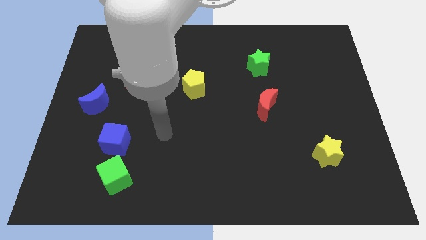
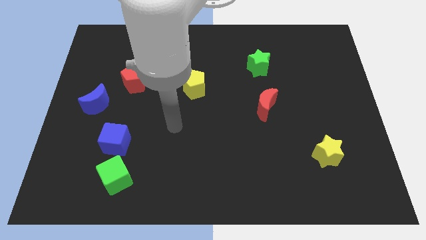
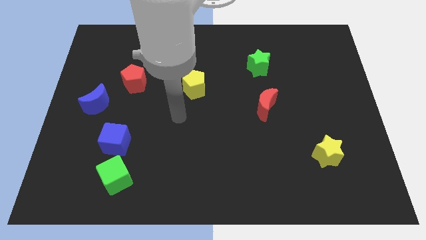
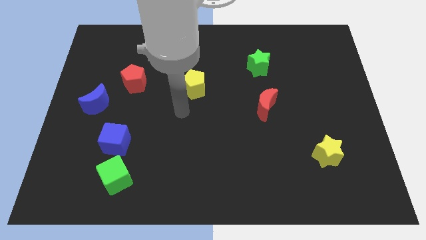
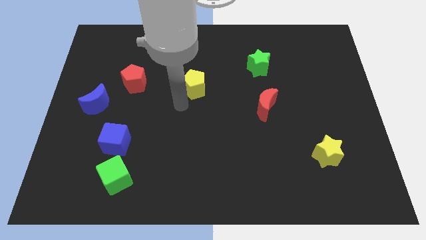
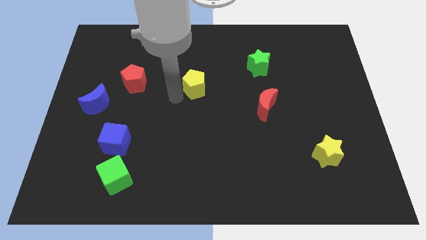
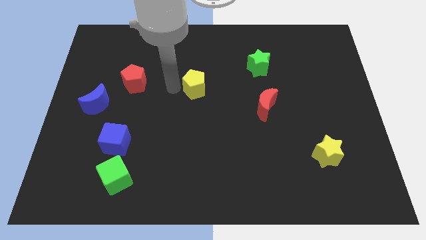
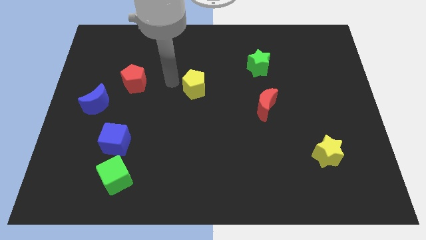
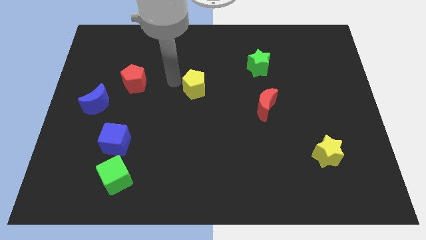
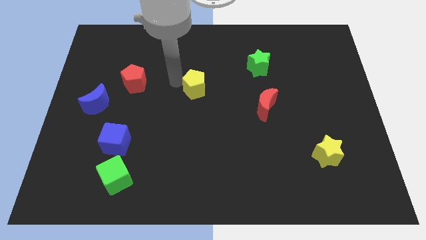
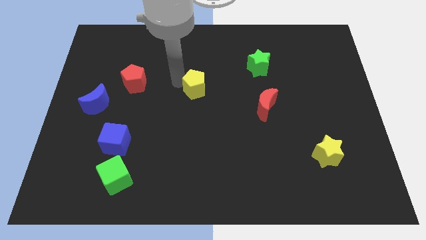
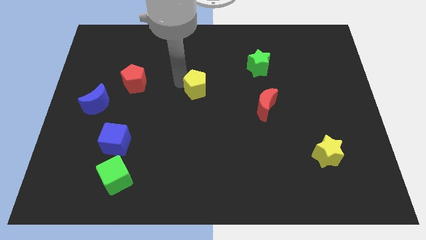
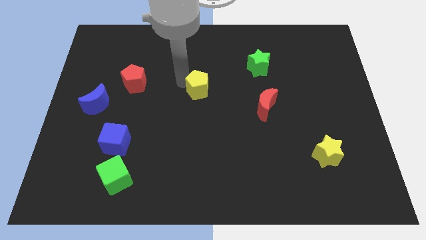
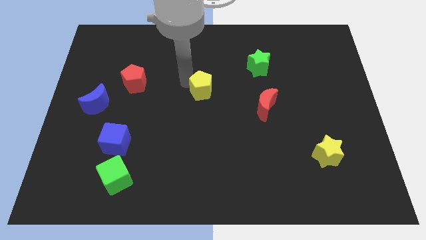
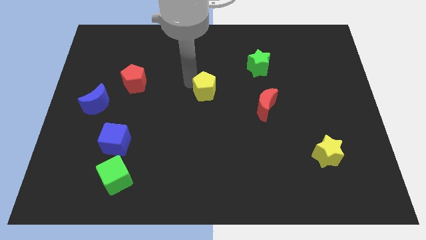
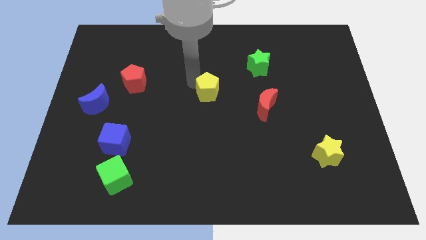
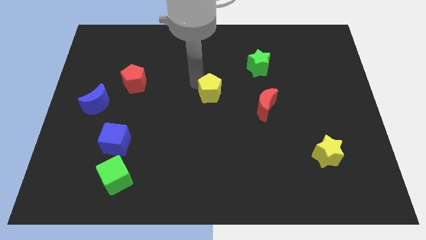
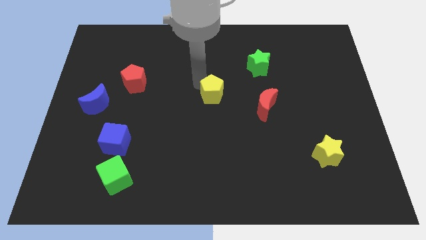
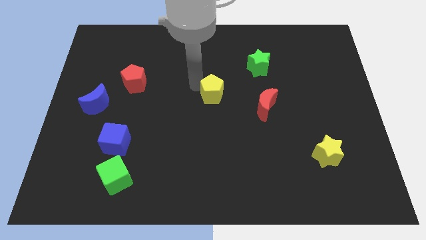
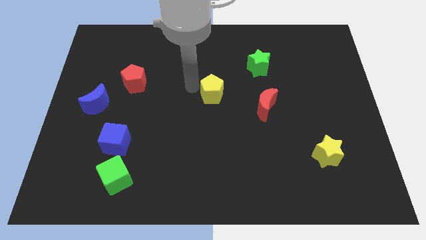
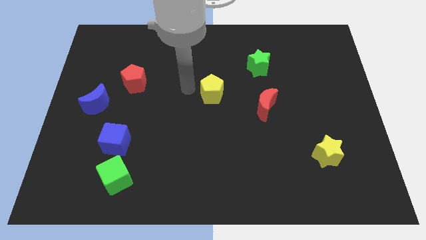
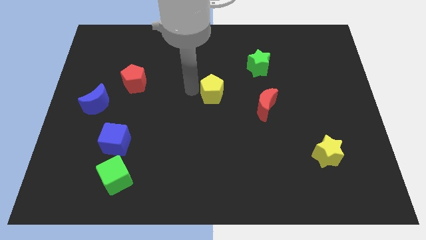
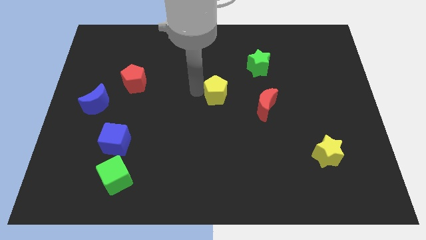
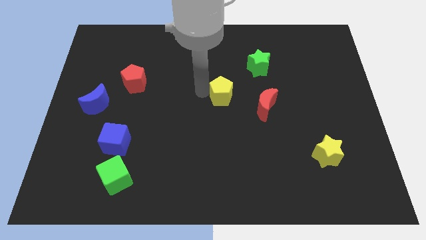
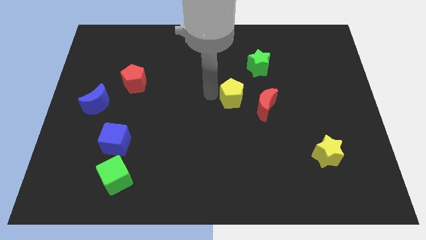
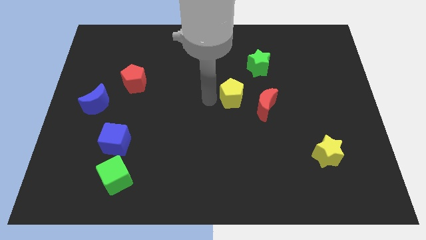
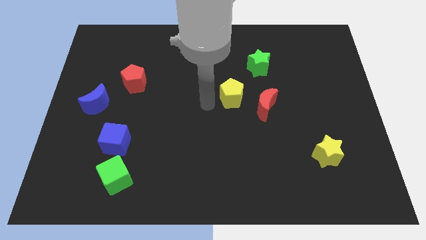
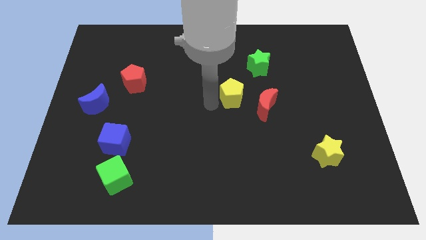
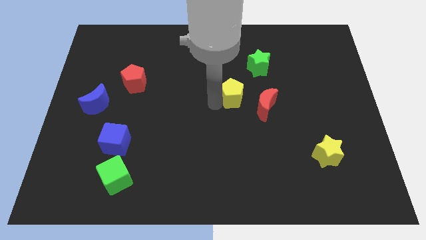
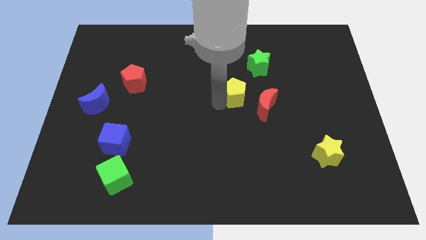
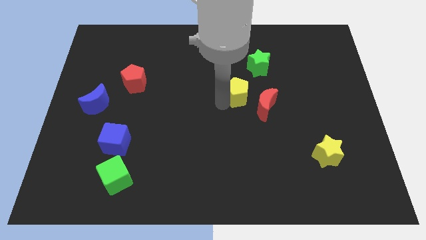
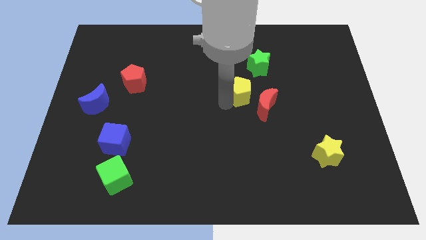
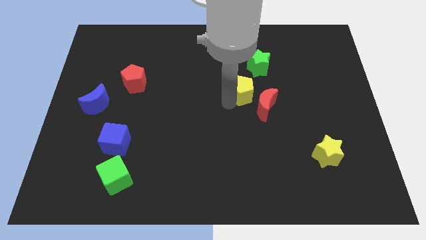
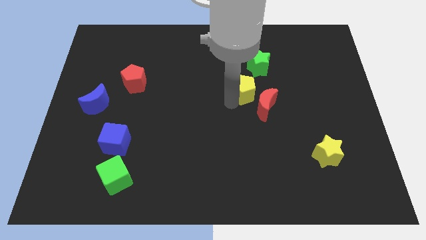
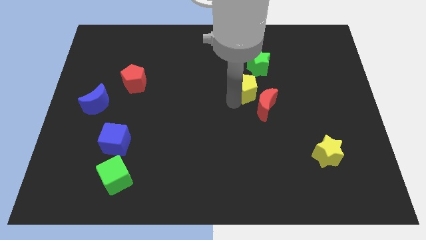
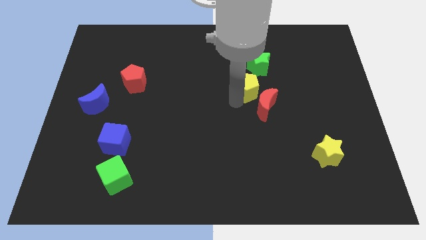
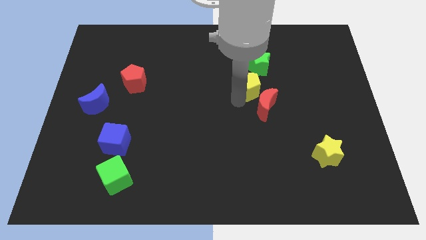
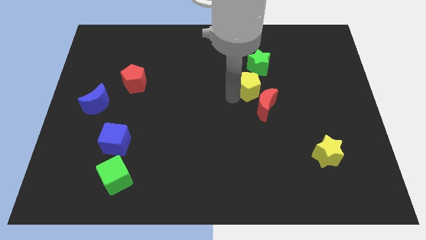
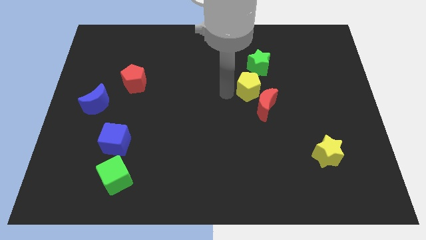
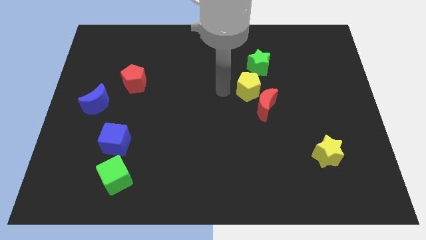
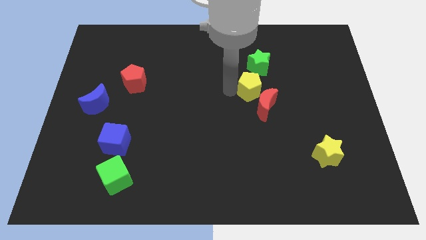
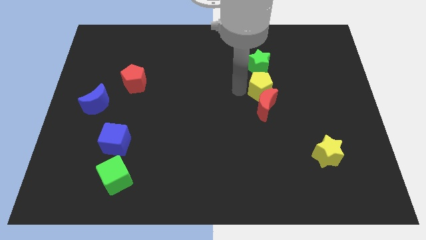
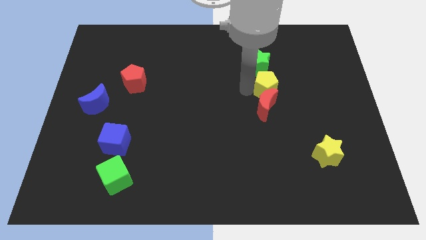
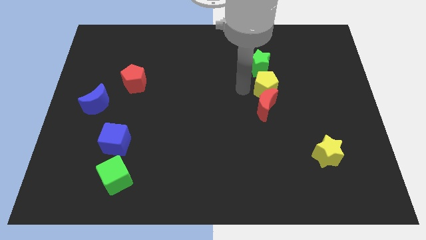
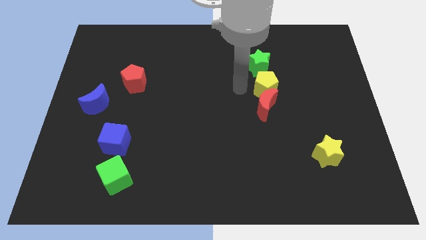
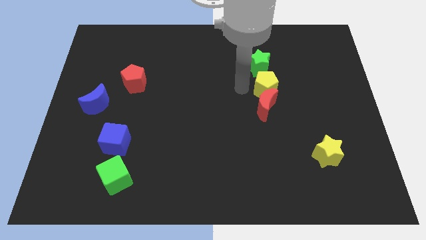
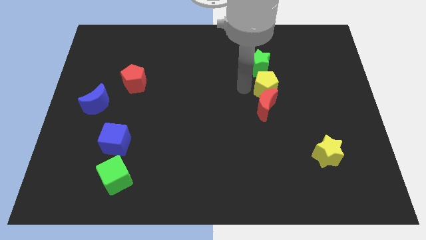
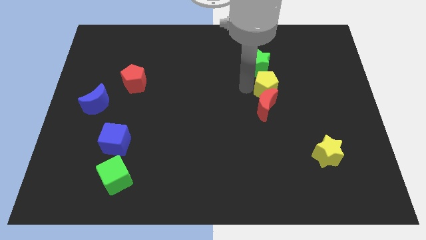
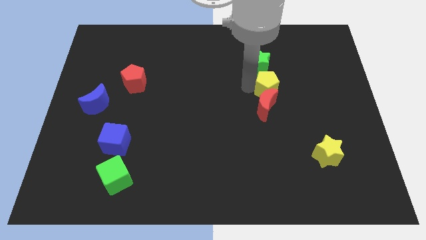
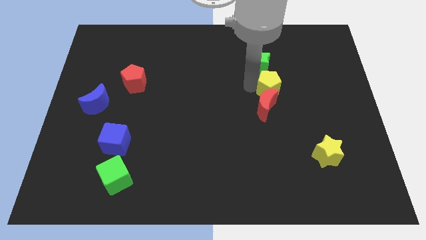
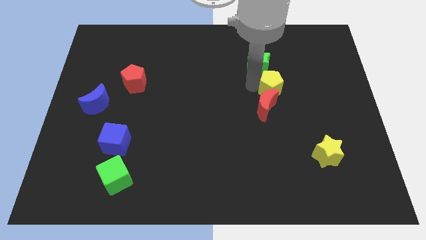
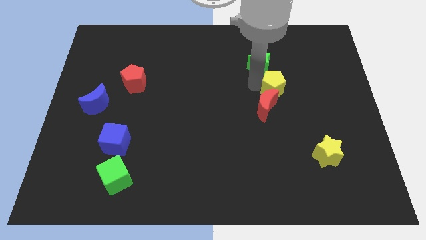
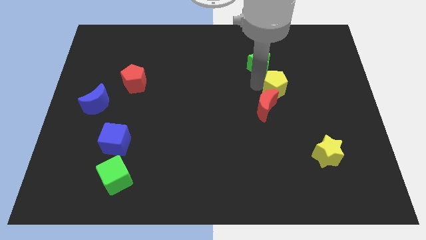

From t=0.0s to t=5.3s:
slide the yellow pentagon right

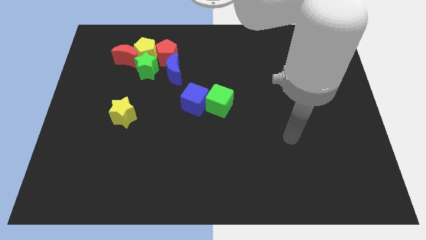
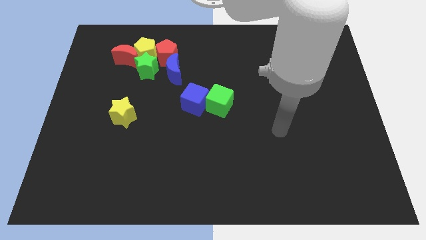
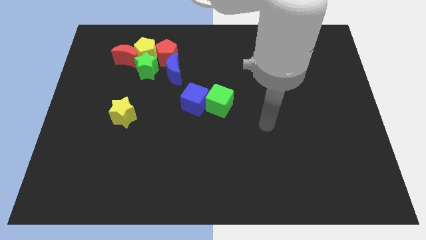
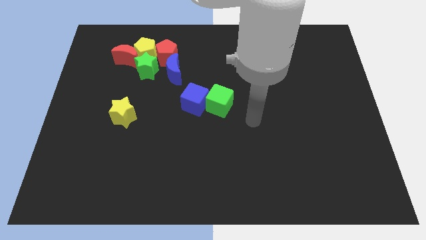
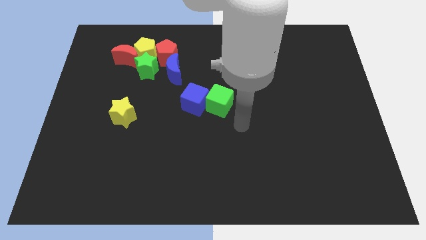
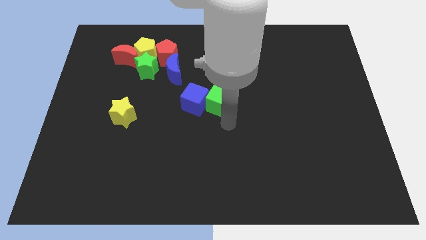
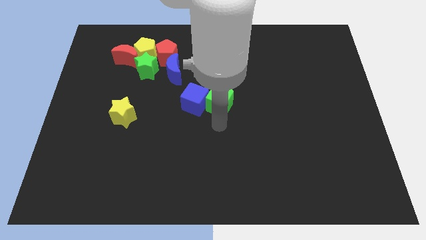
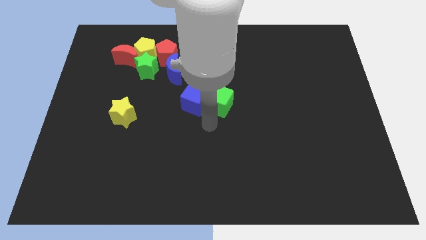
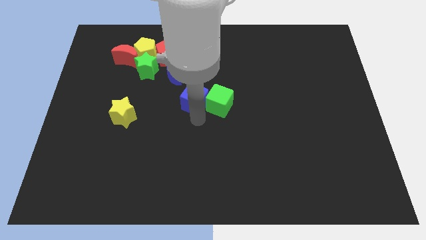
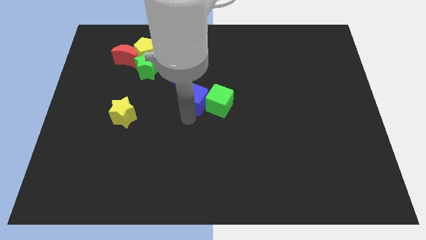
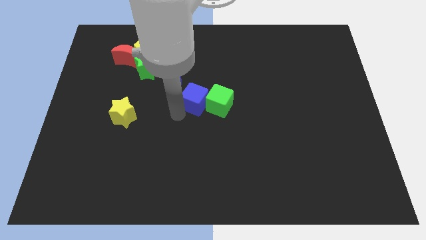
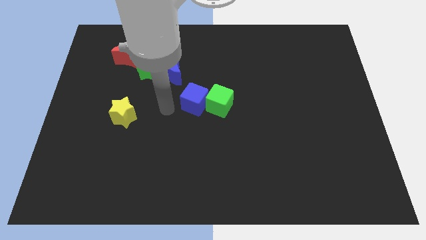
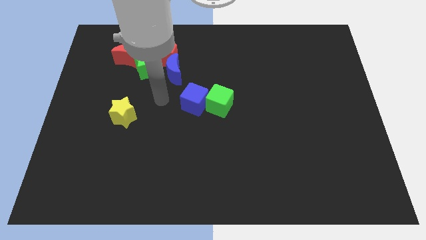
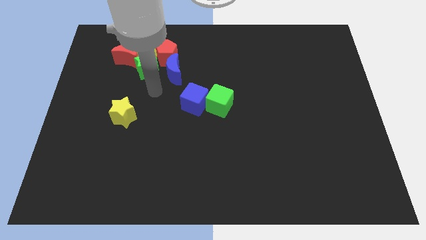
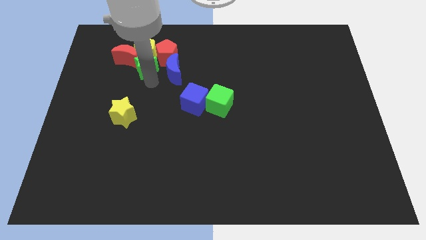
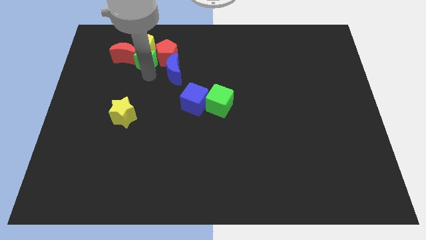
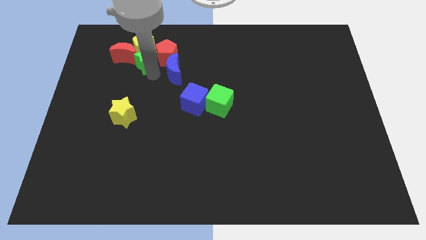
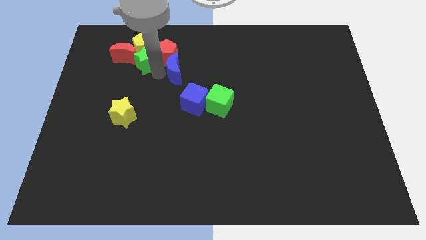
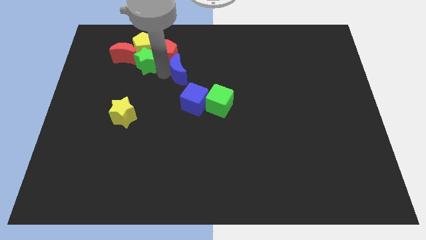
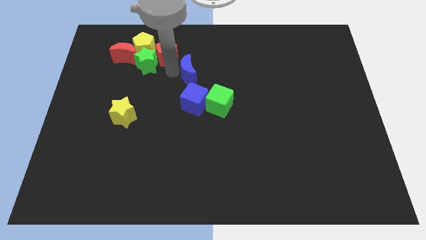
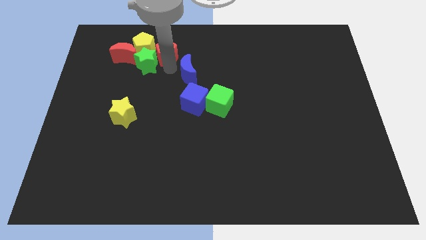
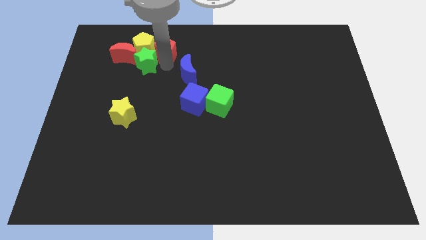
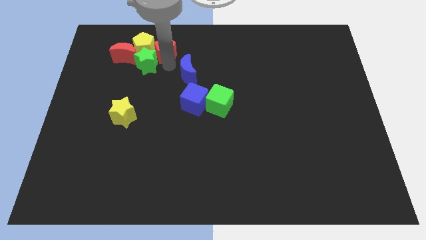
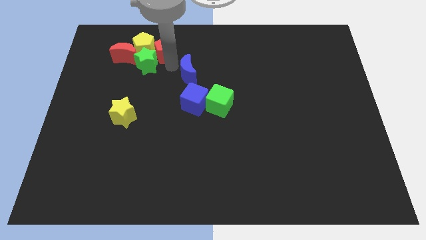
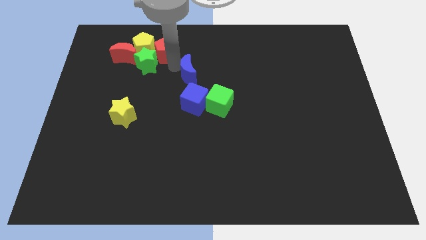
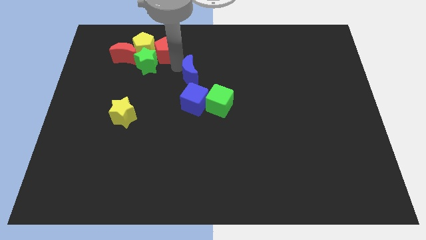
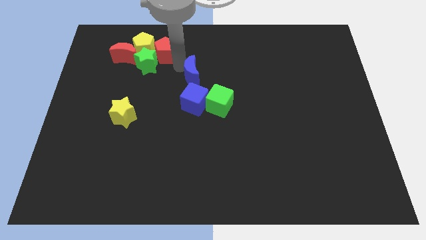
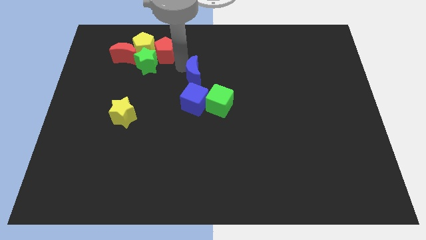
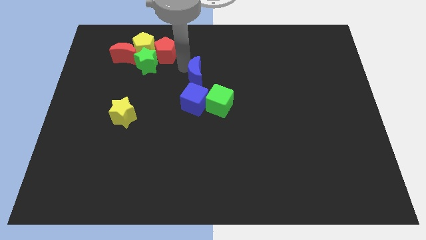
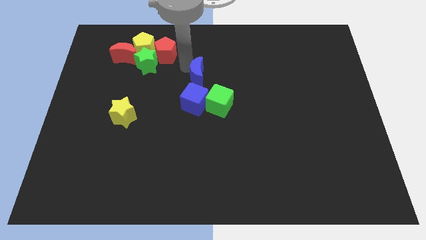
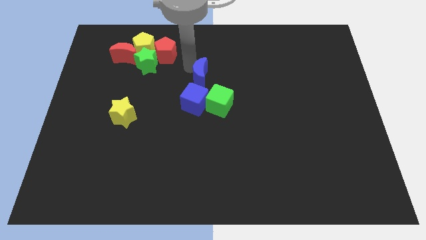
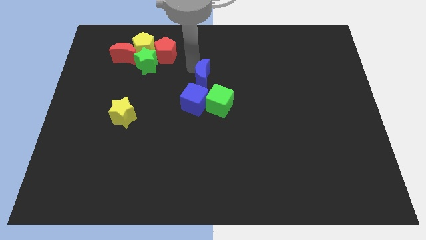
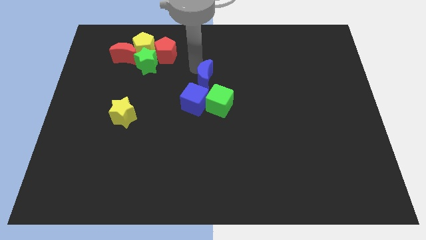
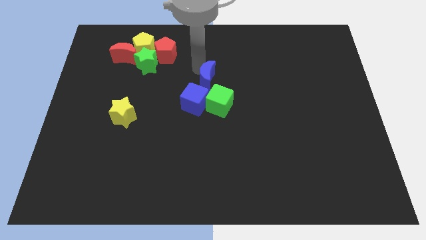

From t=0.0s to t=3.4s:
slightly move the blue moon downwards and to the right diagonally
